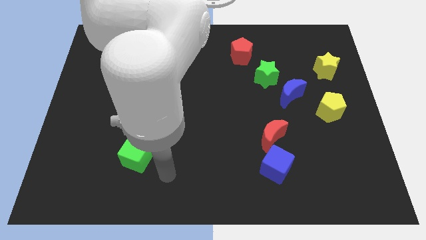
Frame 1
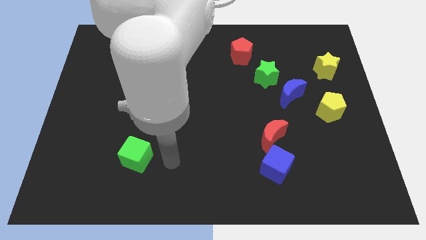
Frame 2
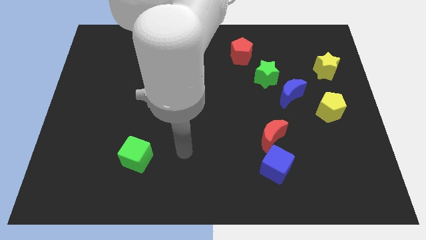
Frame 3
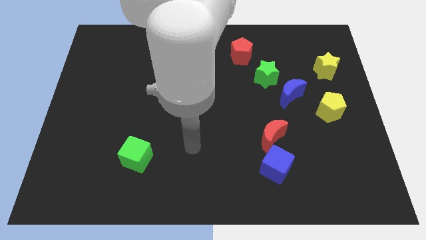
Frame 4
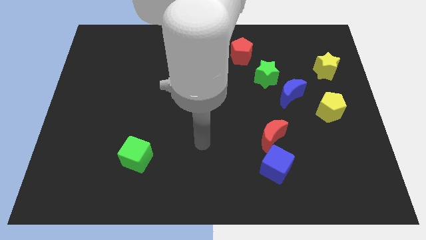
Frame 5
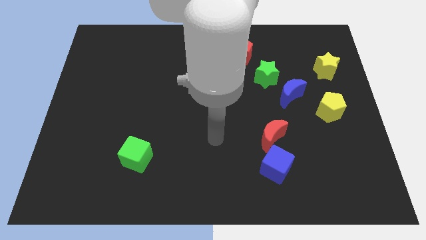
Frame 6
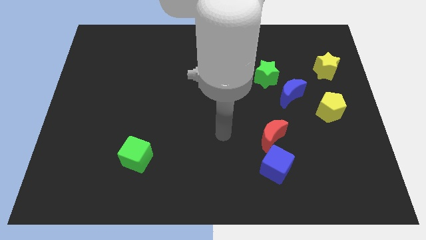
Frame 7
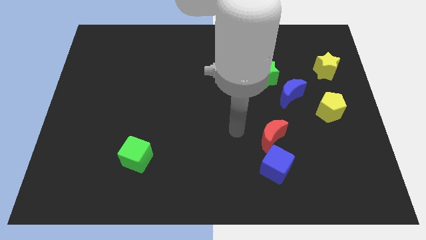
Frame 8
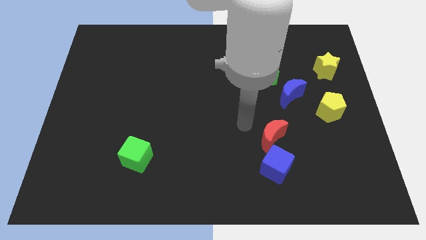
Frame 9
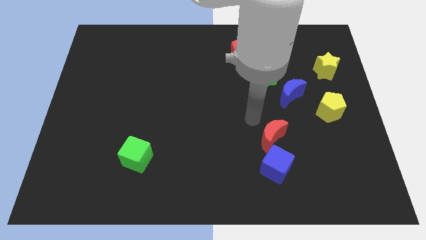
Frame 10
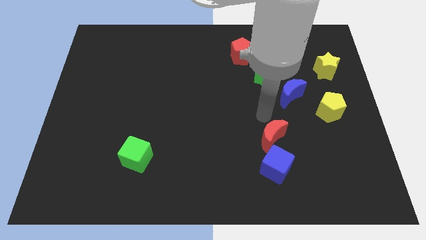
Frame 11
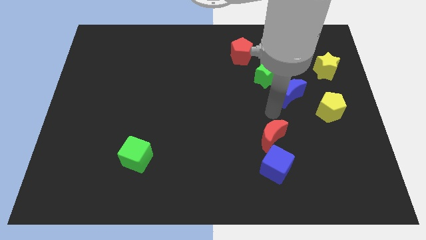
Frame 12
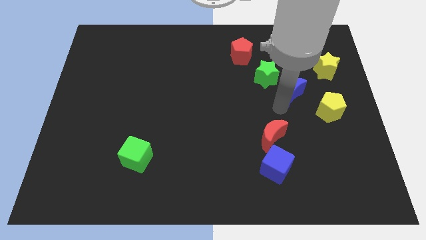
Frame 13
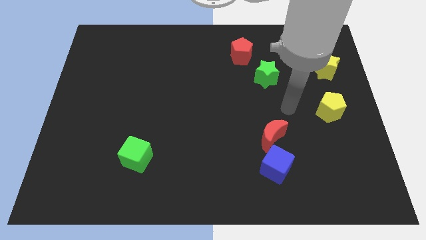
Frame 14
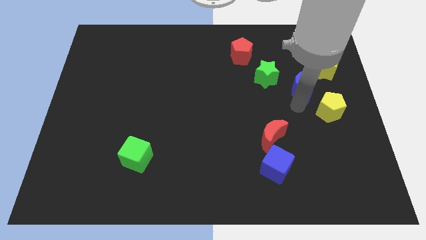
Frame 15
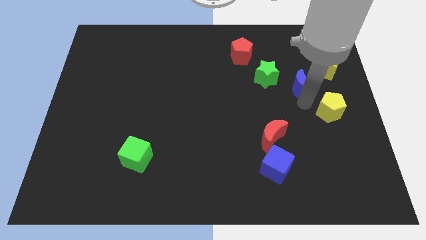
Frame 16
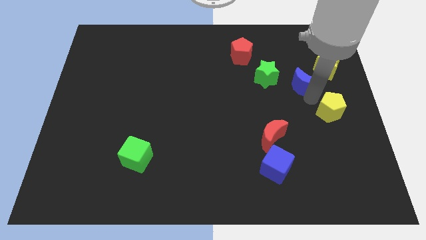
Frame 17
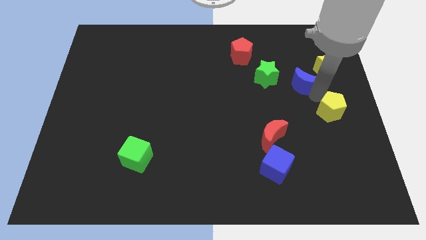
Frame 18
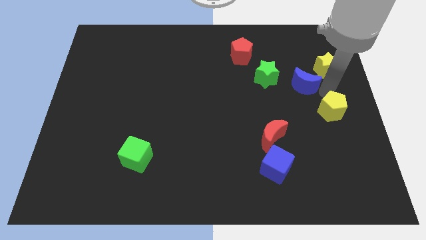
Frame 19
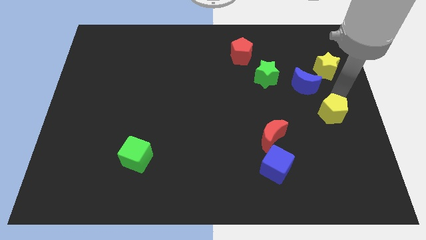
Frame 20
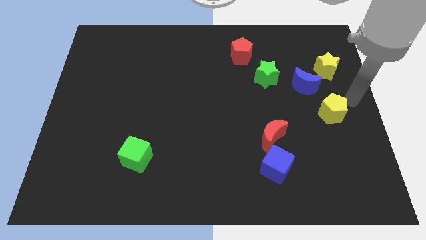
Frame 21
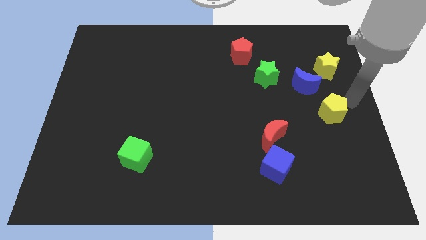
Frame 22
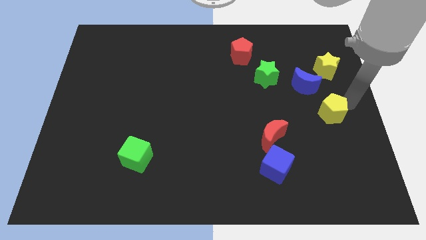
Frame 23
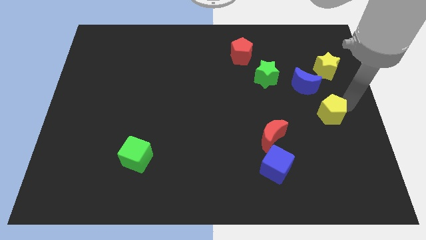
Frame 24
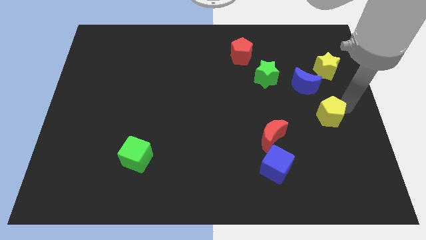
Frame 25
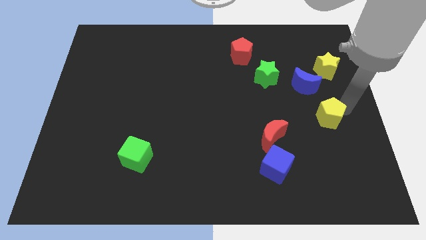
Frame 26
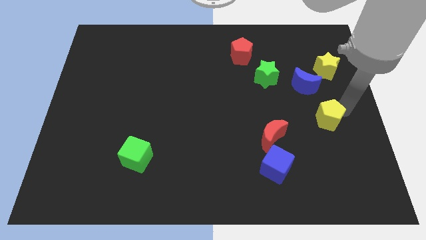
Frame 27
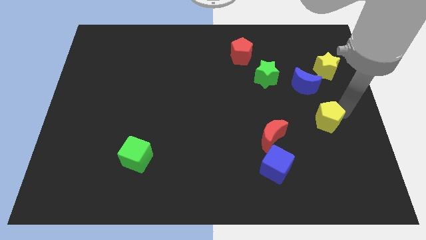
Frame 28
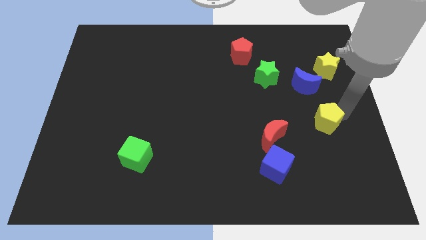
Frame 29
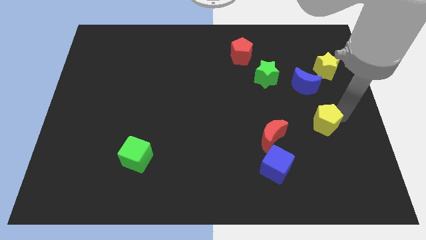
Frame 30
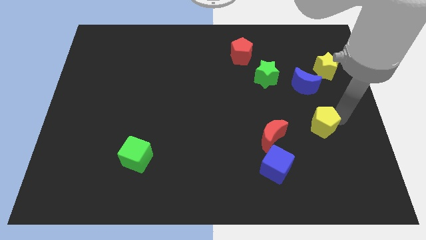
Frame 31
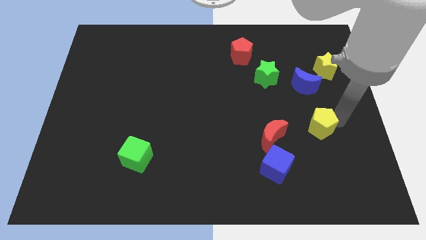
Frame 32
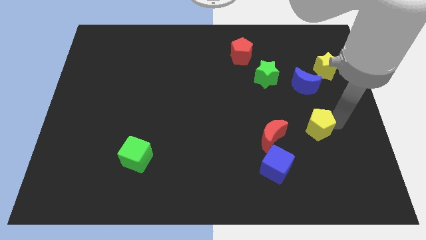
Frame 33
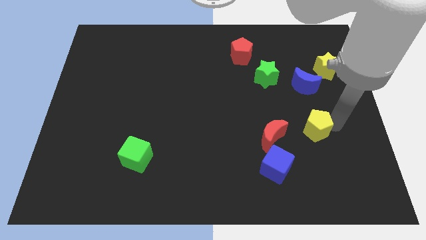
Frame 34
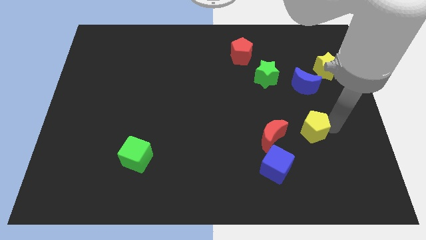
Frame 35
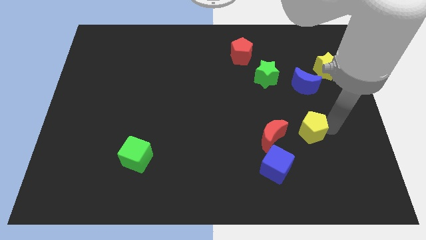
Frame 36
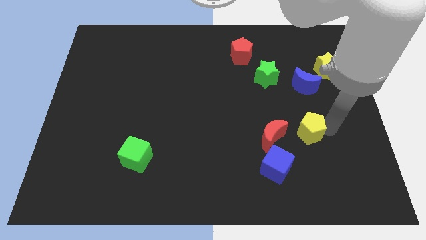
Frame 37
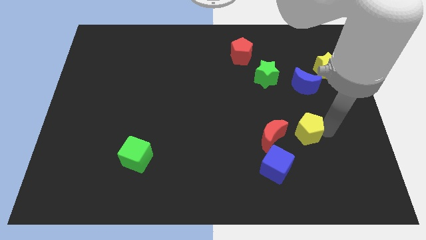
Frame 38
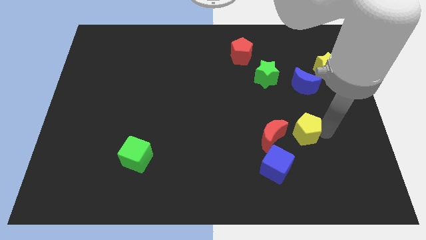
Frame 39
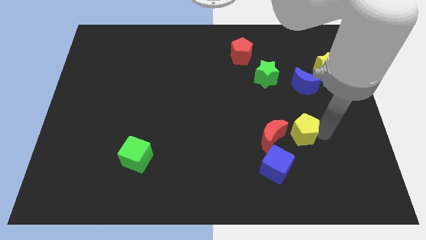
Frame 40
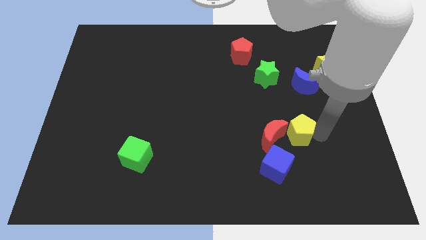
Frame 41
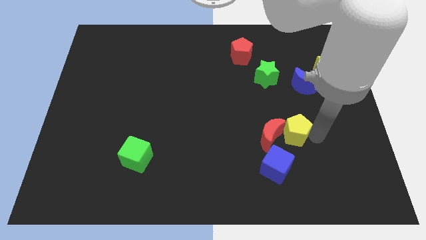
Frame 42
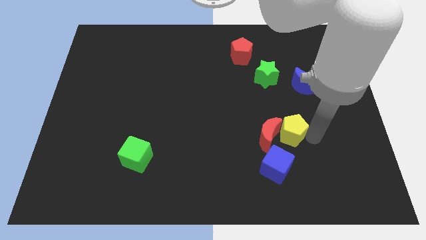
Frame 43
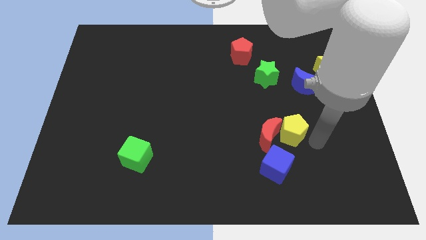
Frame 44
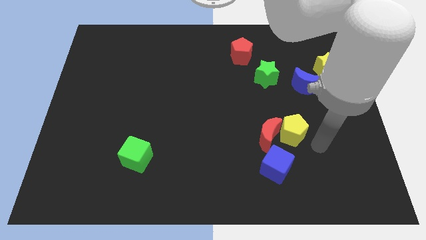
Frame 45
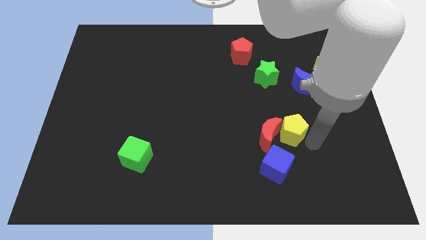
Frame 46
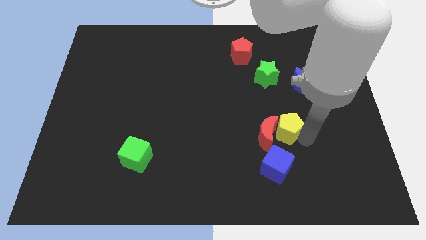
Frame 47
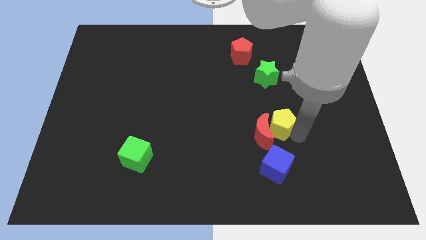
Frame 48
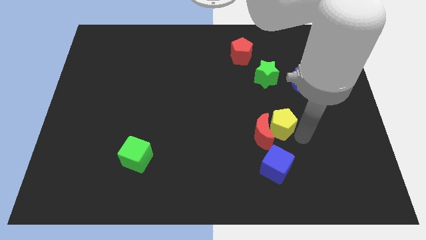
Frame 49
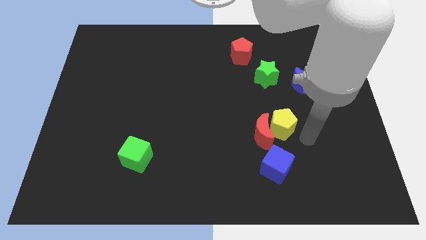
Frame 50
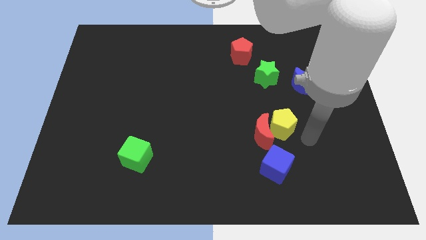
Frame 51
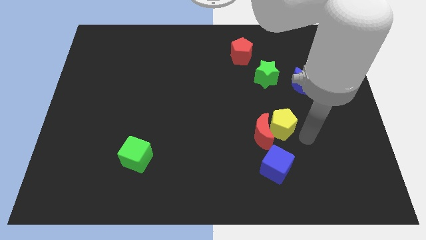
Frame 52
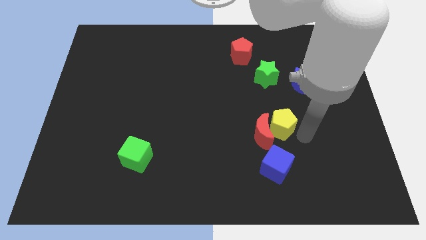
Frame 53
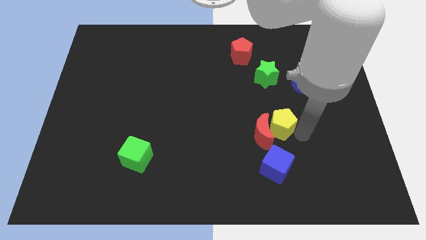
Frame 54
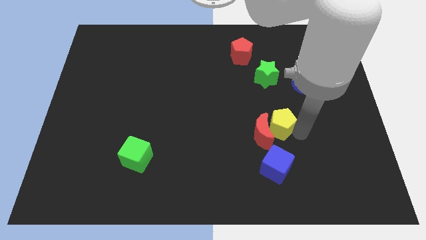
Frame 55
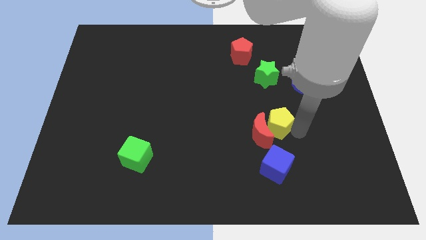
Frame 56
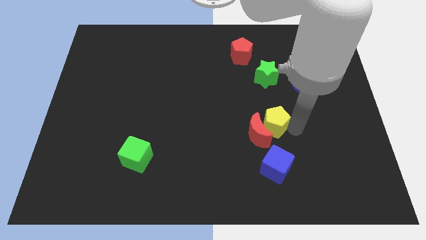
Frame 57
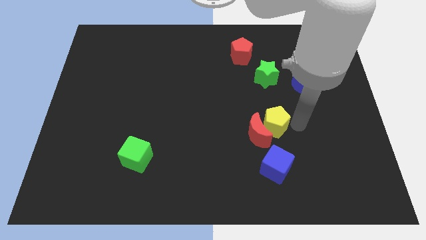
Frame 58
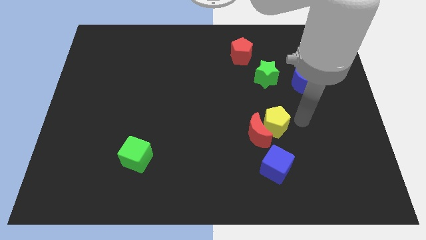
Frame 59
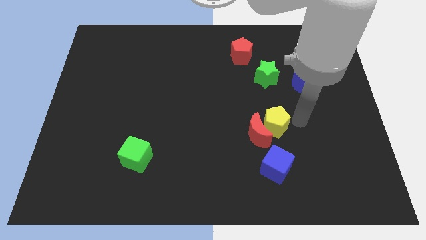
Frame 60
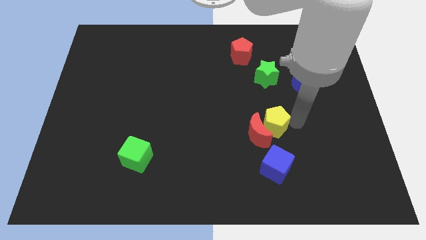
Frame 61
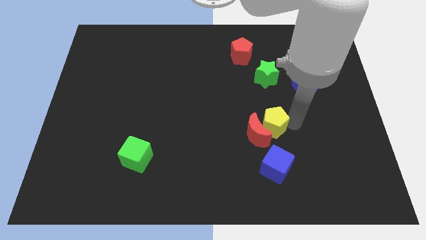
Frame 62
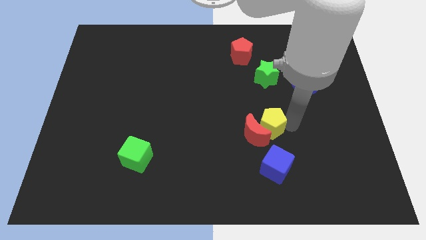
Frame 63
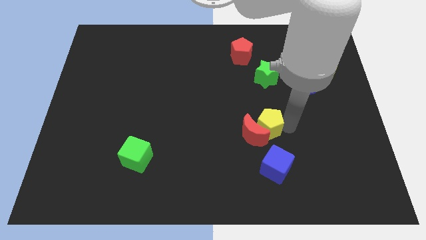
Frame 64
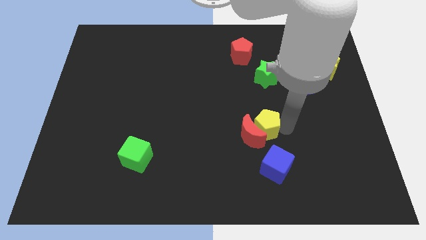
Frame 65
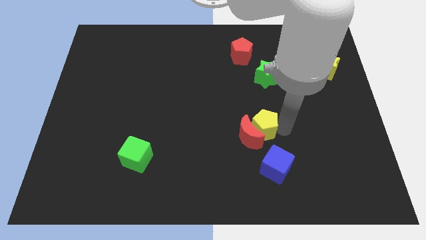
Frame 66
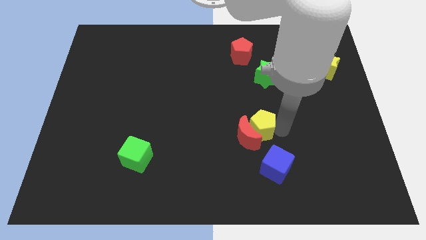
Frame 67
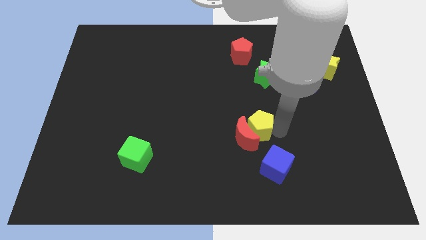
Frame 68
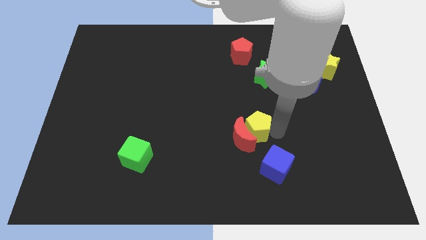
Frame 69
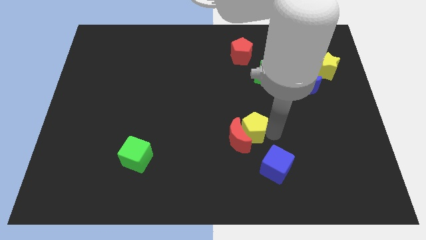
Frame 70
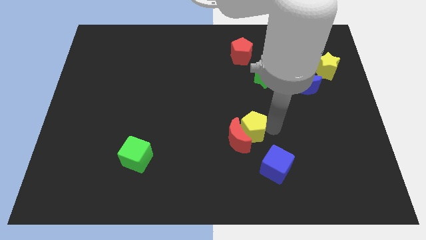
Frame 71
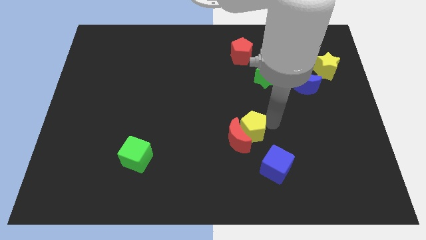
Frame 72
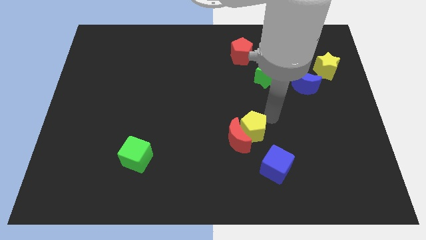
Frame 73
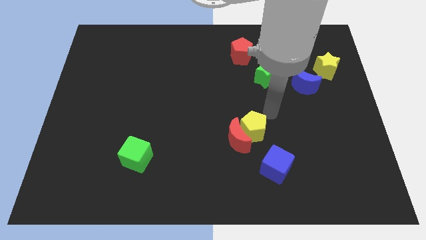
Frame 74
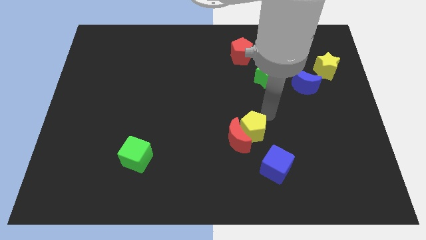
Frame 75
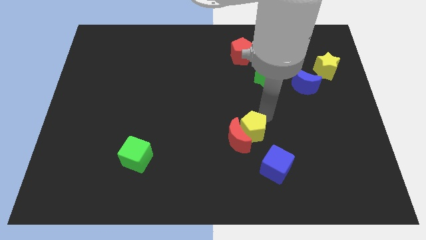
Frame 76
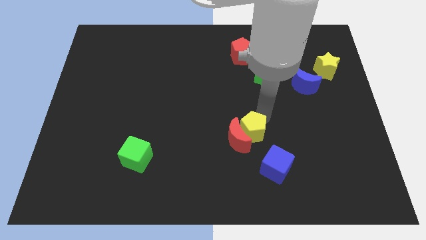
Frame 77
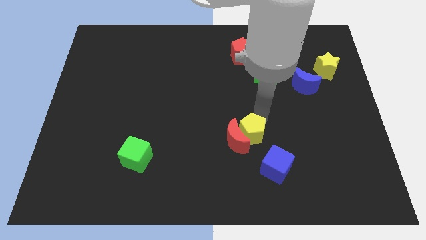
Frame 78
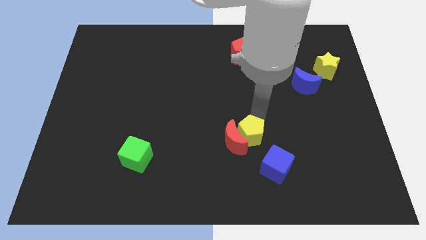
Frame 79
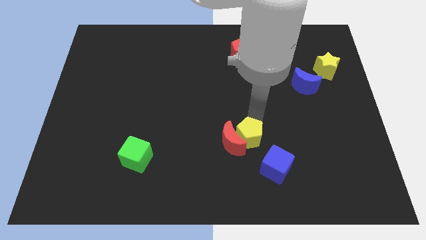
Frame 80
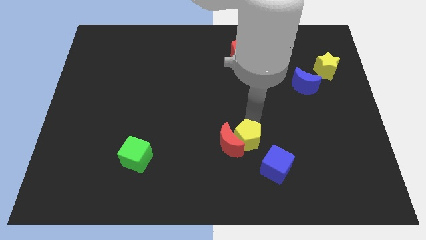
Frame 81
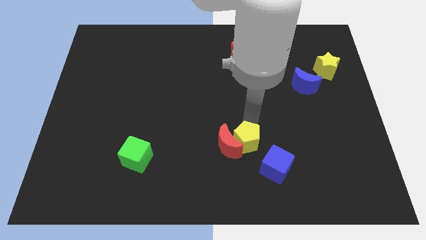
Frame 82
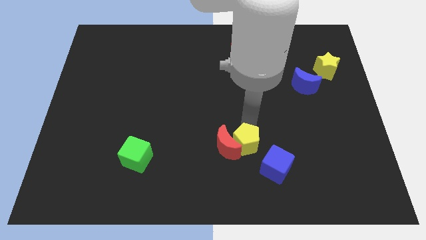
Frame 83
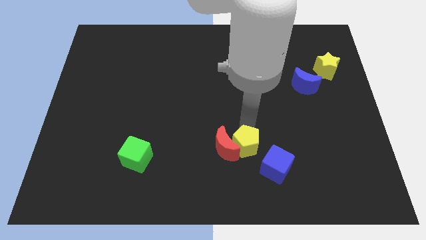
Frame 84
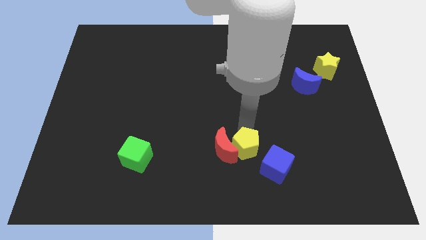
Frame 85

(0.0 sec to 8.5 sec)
slide the yellow pentagon to the left of the blue cube
